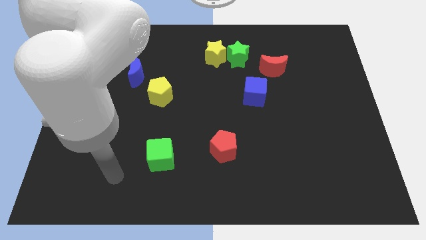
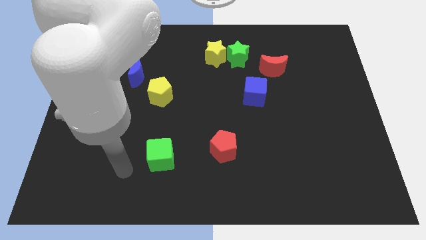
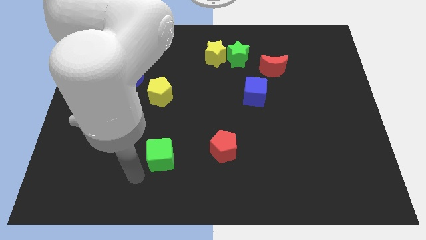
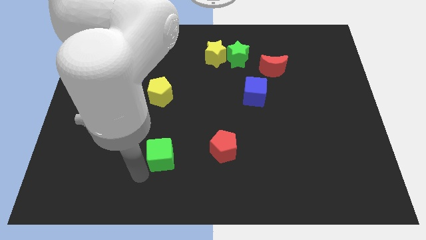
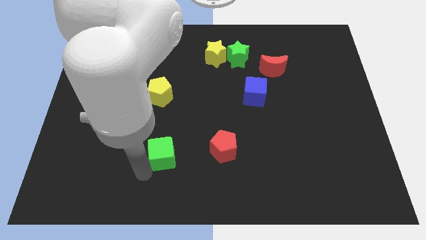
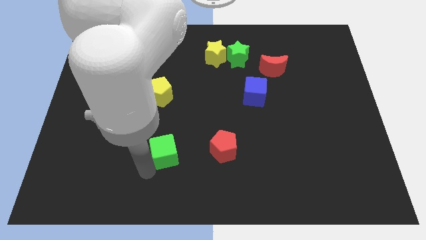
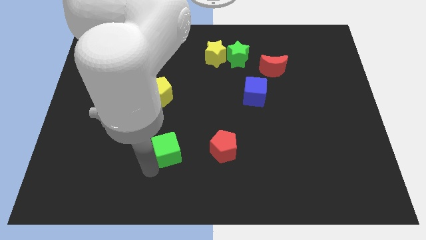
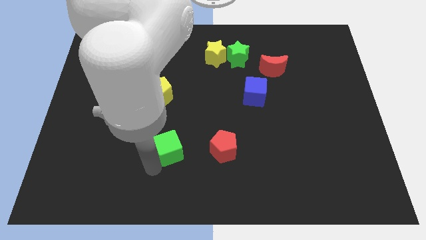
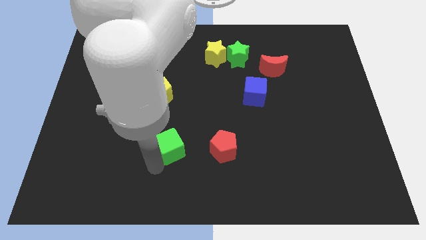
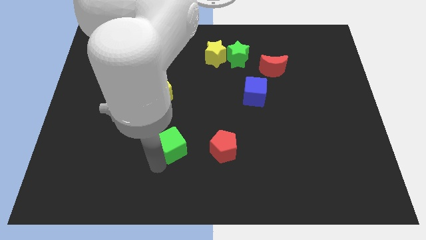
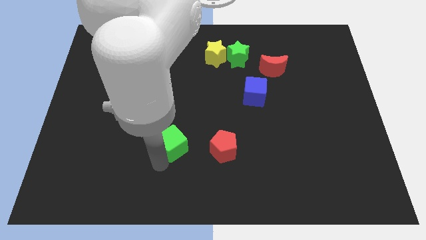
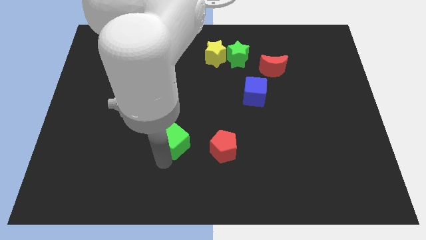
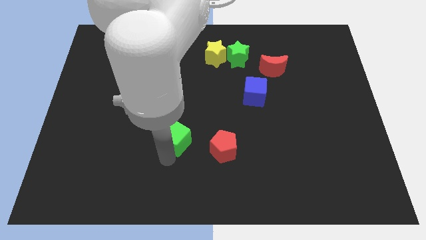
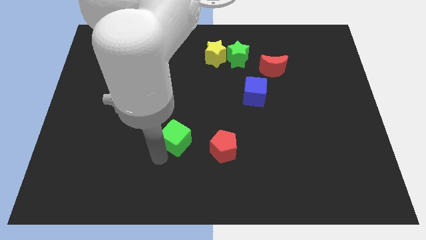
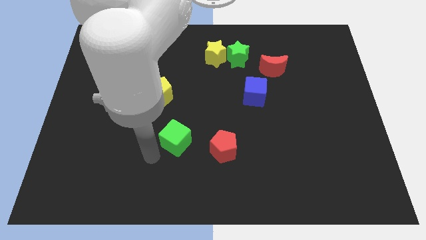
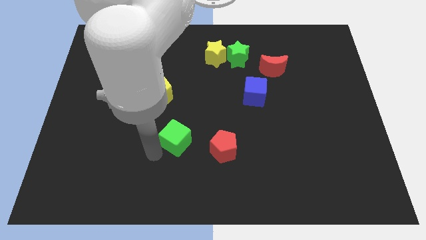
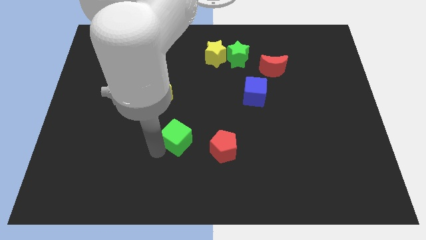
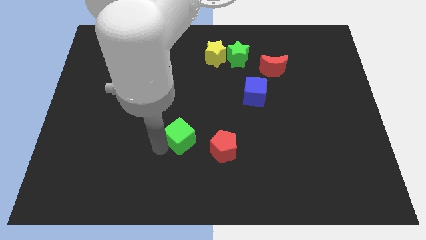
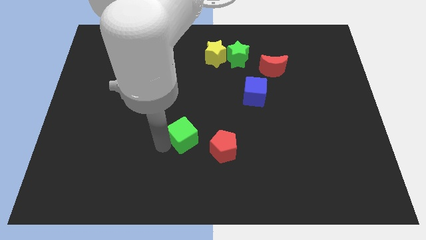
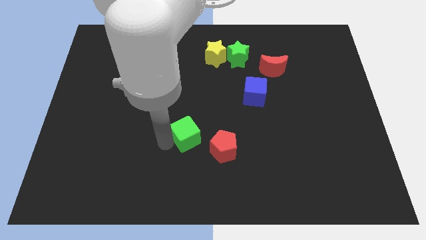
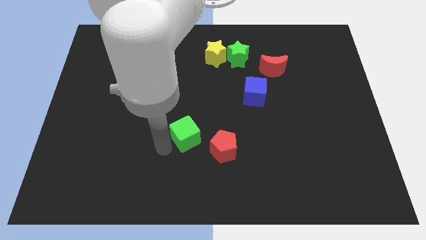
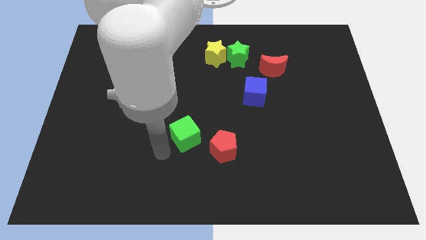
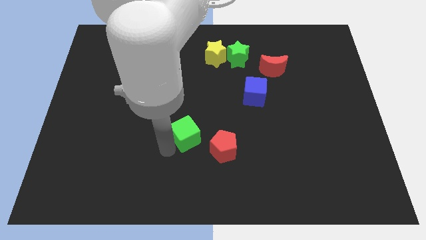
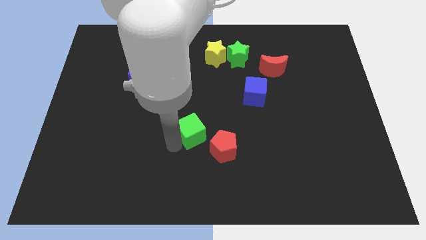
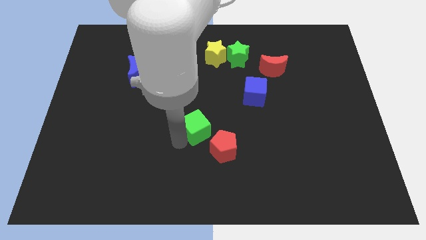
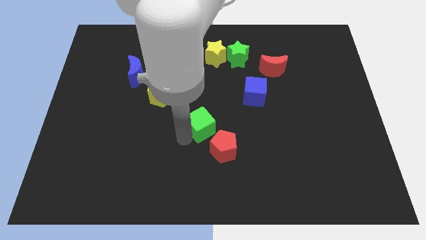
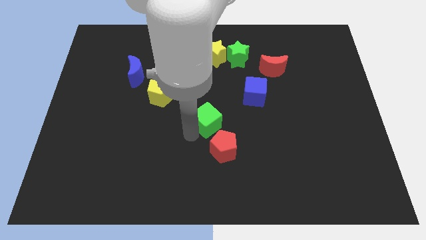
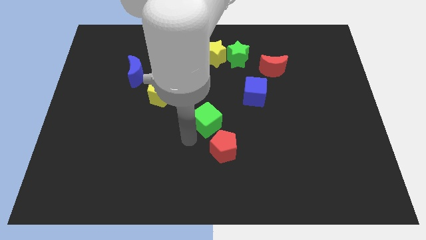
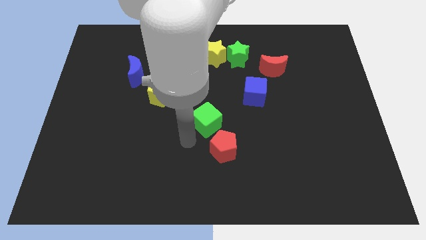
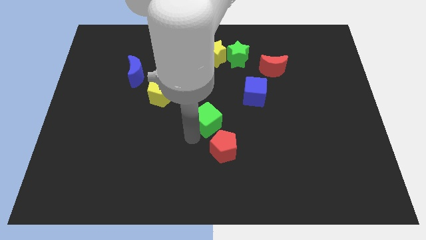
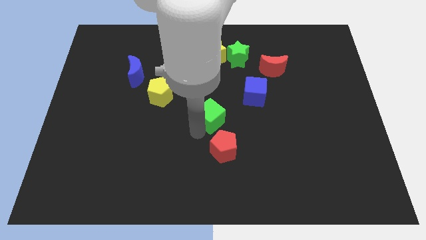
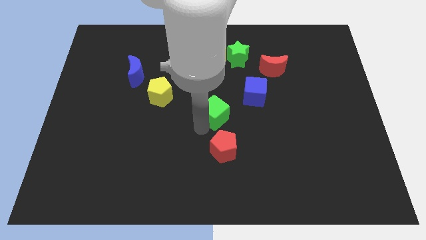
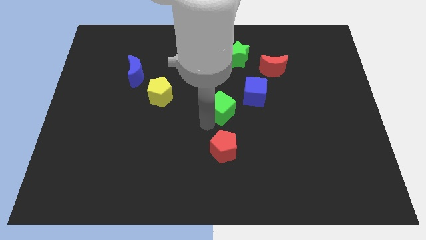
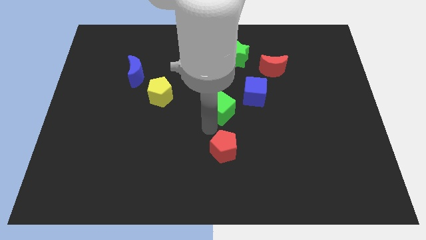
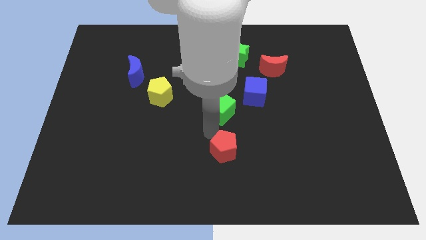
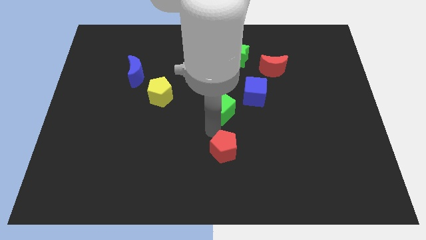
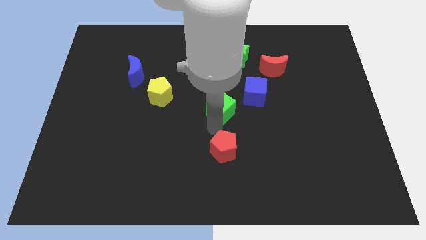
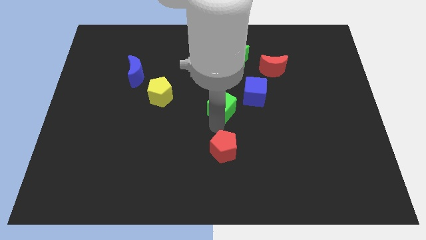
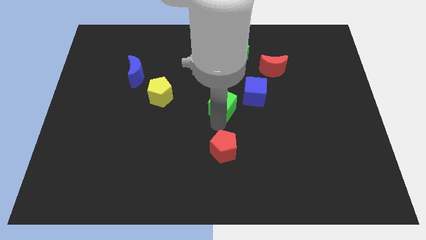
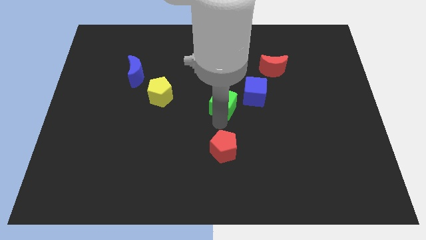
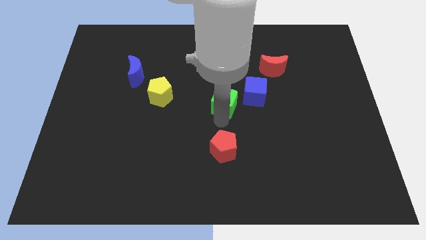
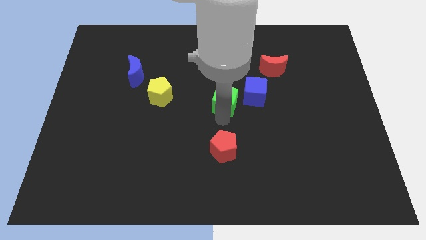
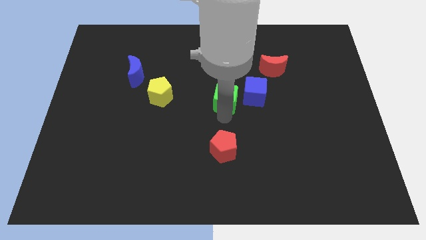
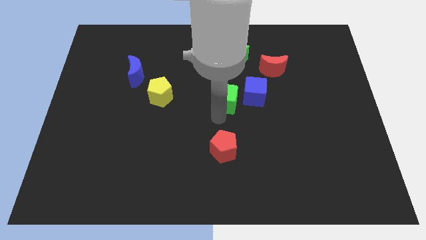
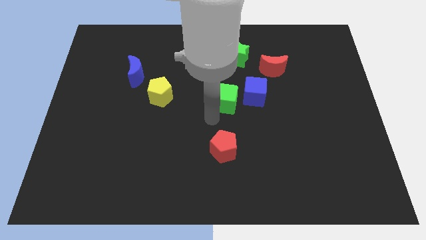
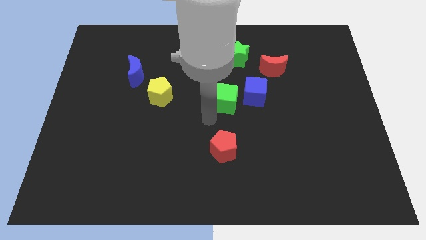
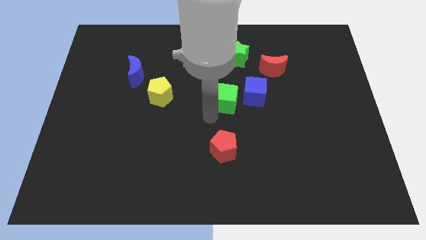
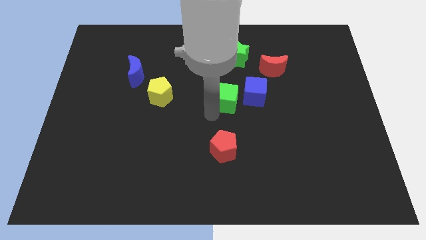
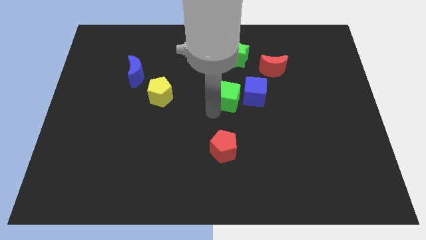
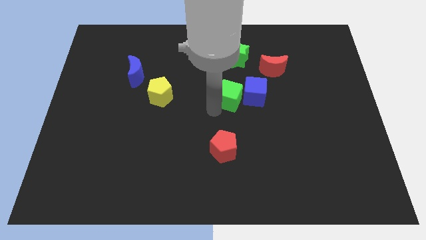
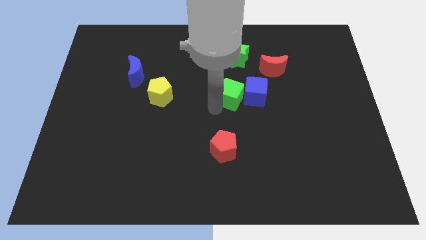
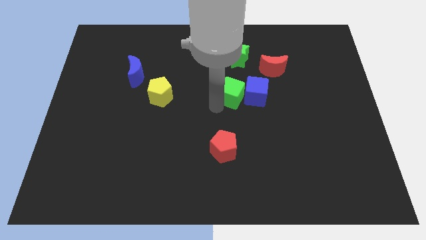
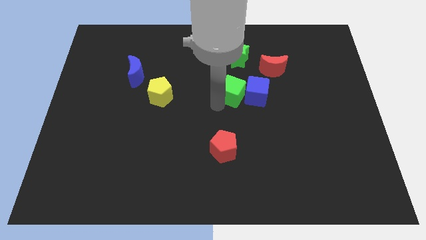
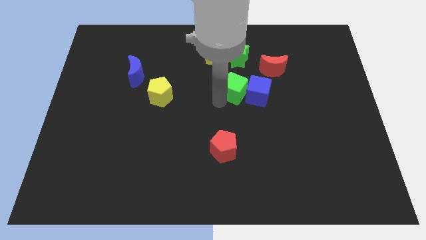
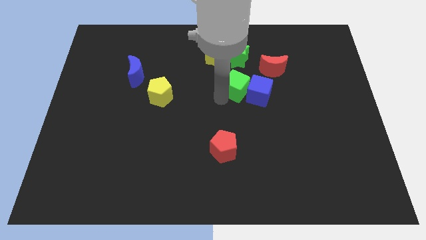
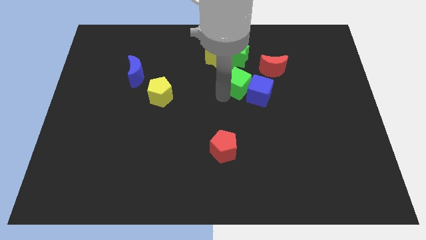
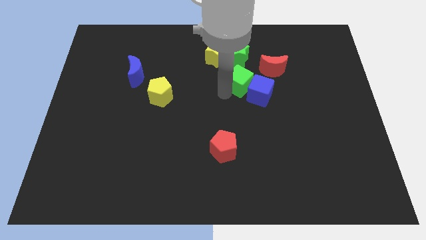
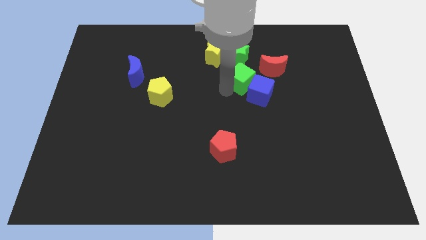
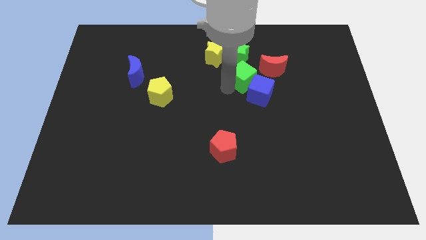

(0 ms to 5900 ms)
move the green cube to the bottom right side of the green star

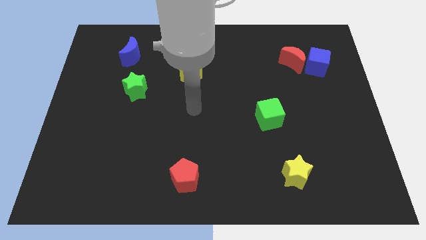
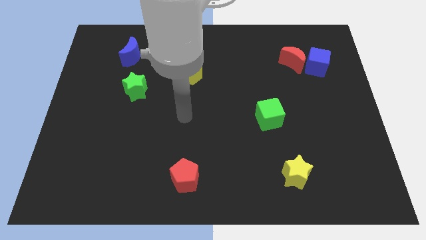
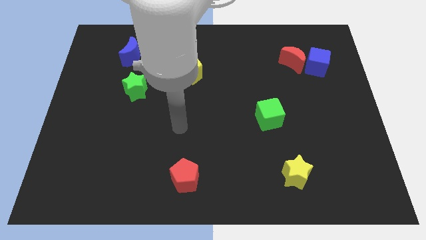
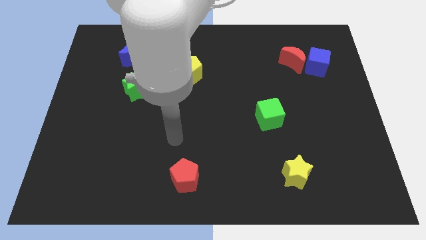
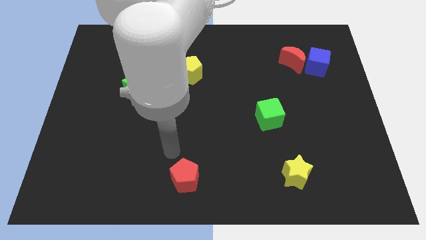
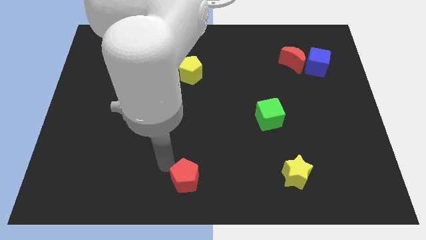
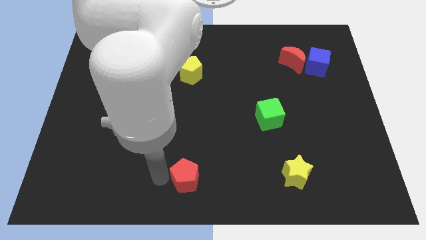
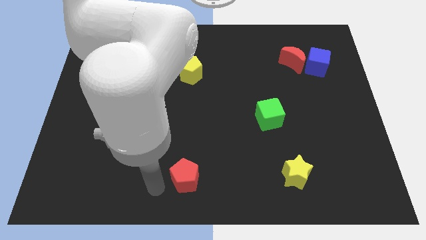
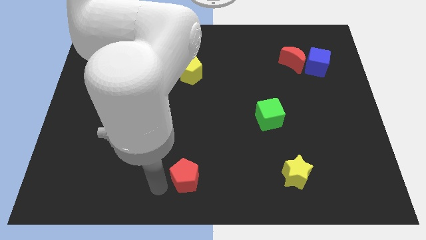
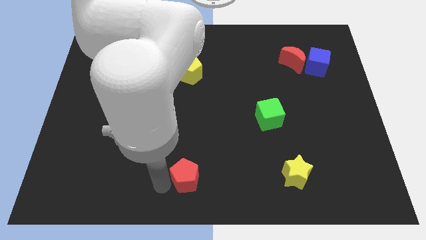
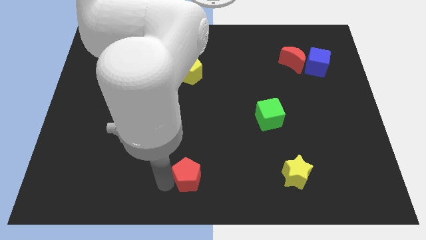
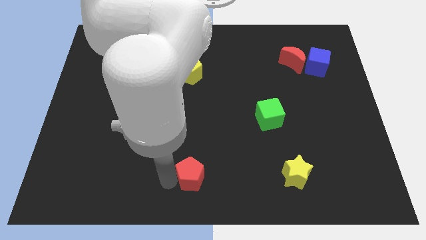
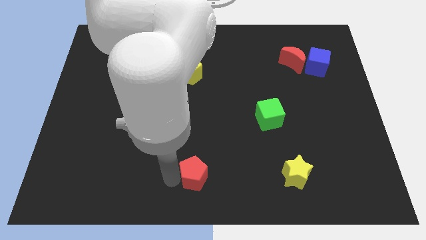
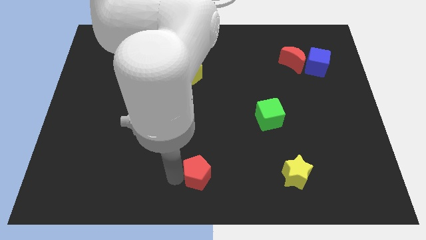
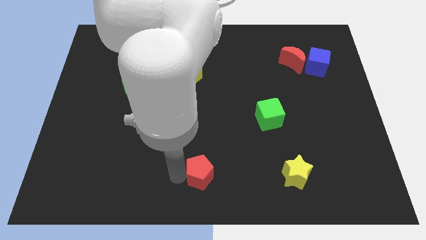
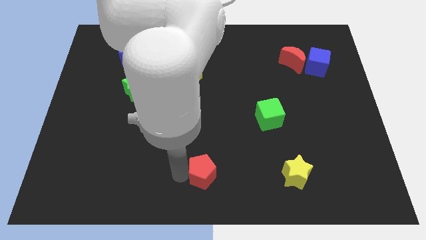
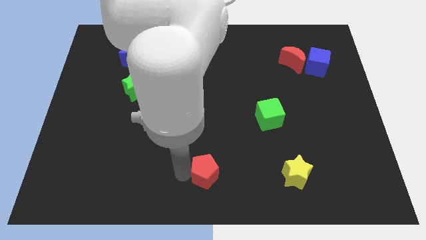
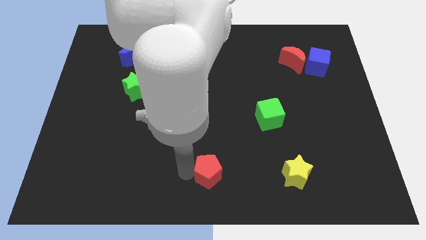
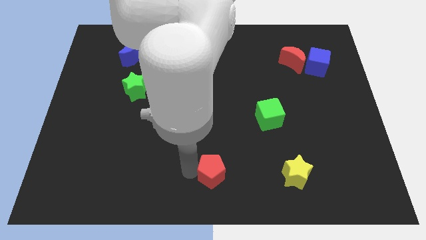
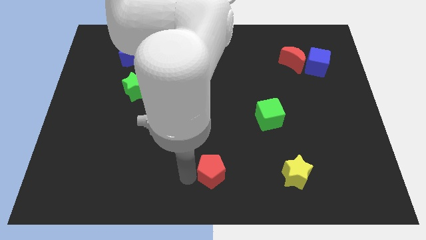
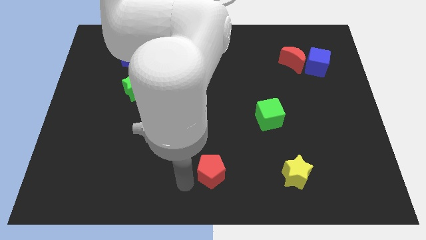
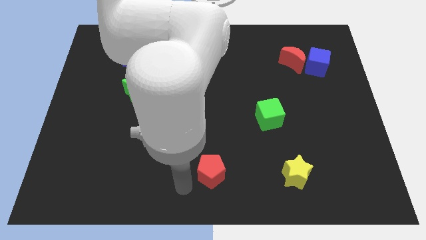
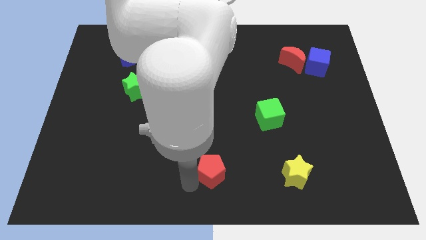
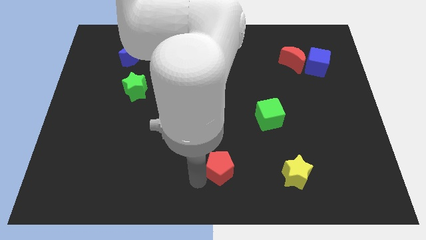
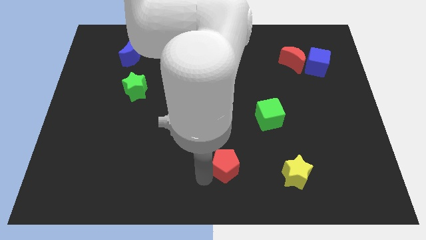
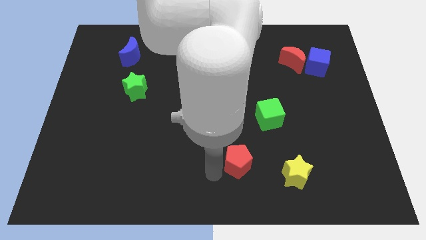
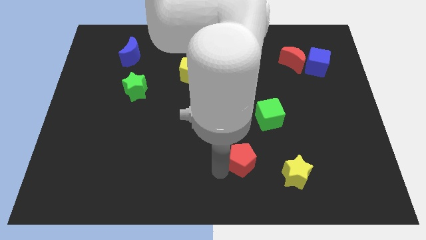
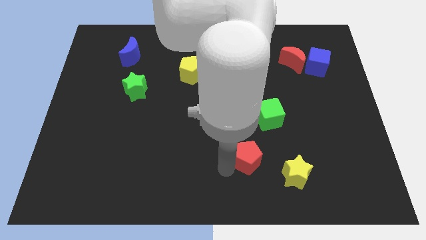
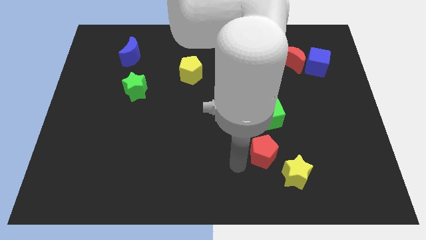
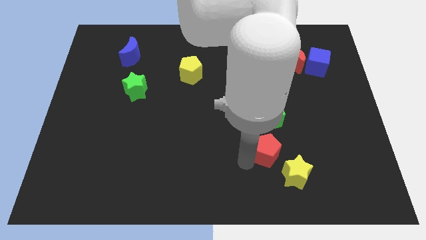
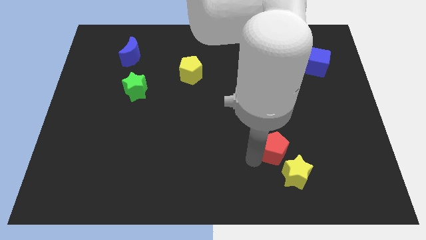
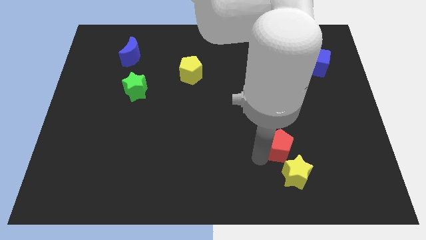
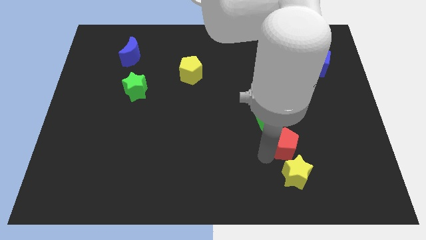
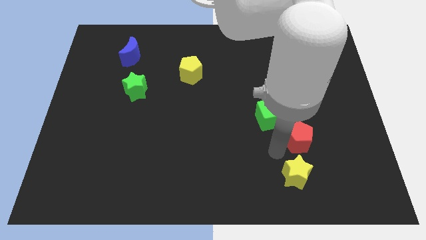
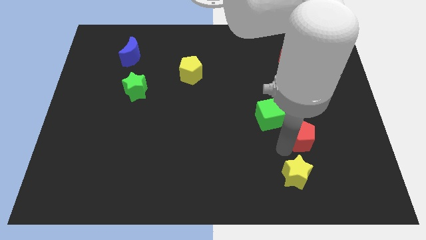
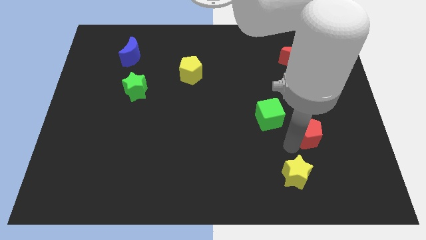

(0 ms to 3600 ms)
push the red pentagon right of the green cube
